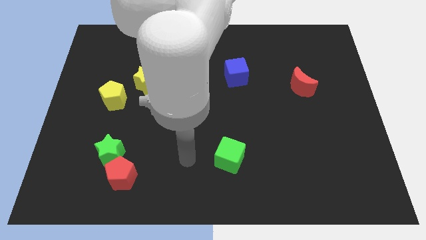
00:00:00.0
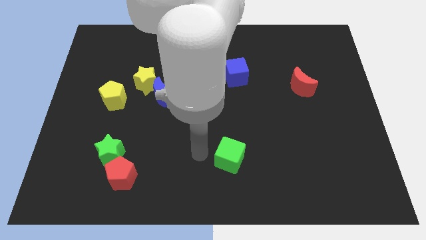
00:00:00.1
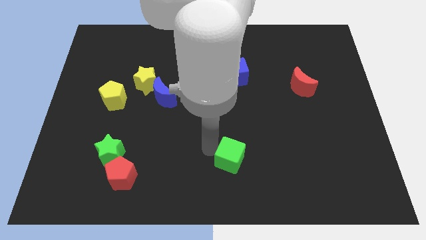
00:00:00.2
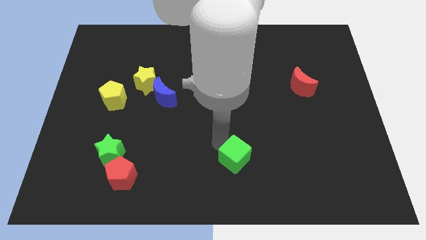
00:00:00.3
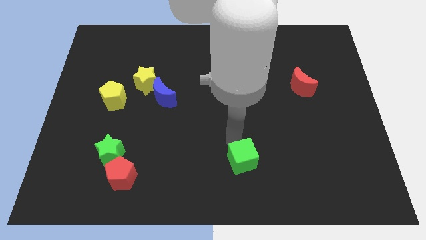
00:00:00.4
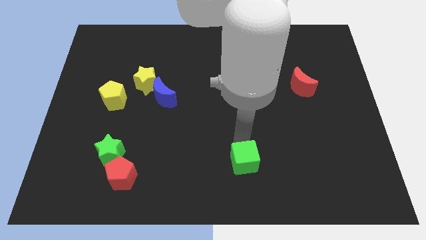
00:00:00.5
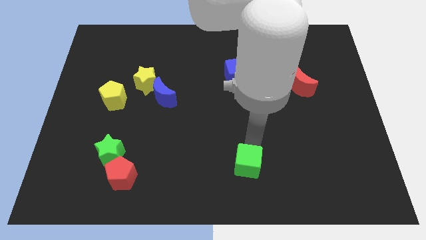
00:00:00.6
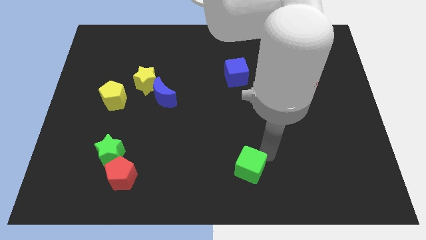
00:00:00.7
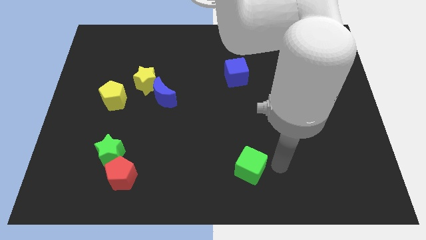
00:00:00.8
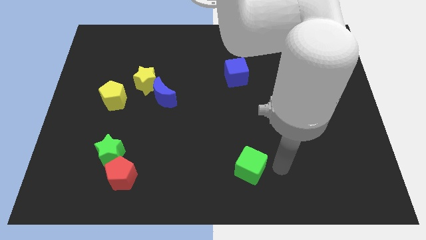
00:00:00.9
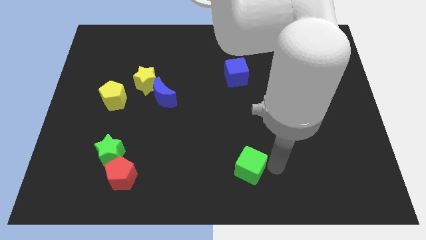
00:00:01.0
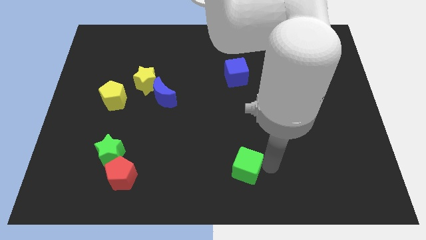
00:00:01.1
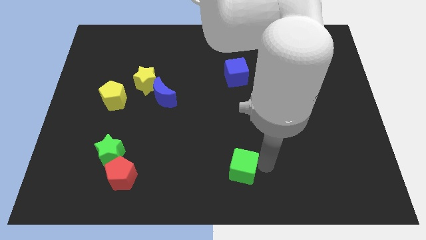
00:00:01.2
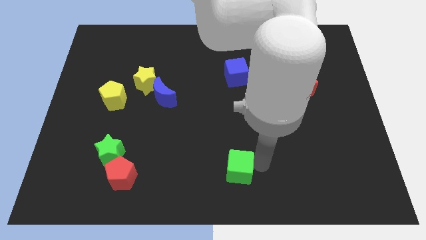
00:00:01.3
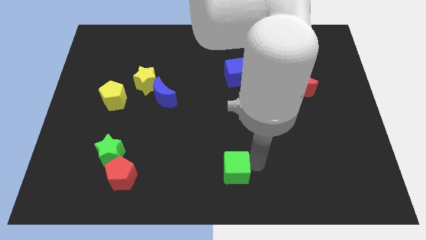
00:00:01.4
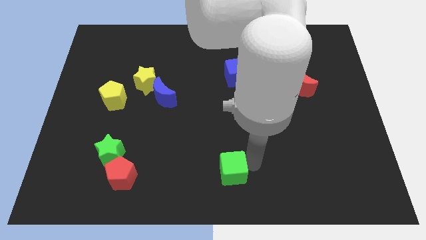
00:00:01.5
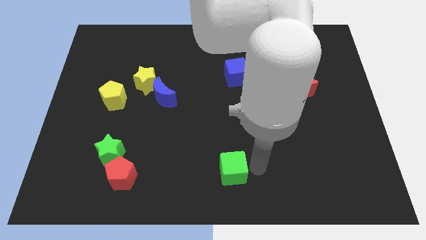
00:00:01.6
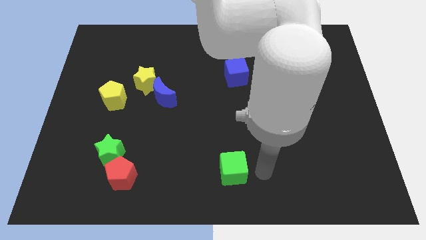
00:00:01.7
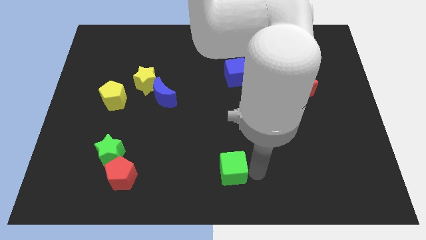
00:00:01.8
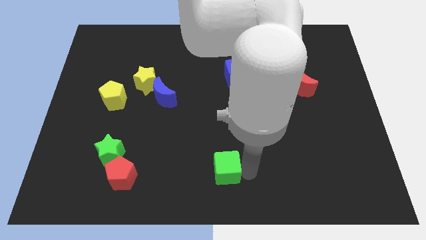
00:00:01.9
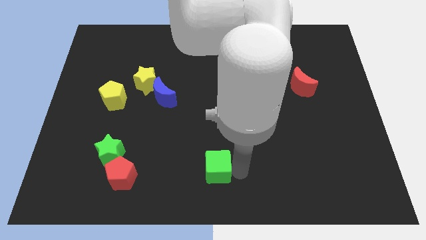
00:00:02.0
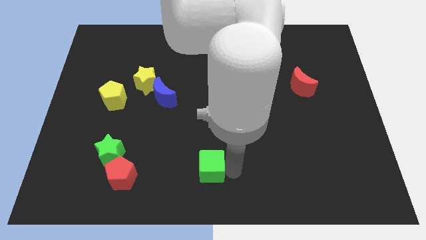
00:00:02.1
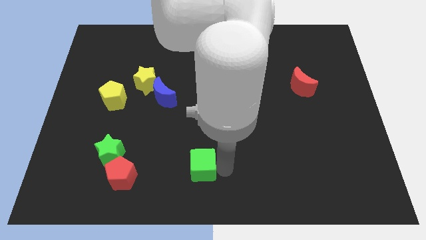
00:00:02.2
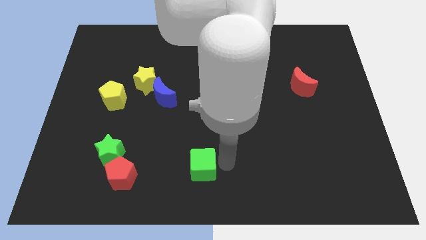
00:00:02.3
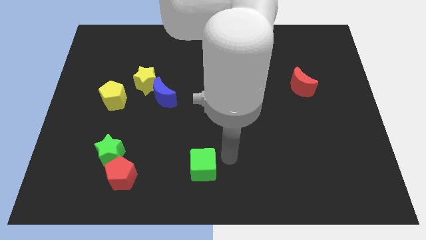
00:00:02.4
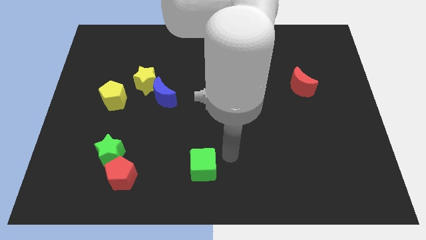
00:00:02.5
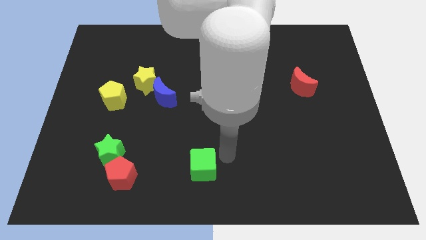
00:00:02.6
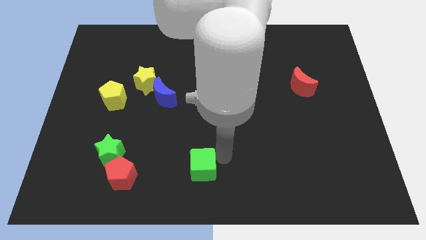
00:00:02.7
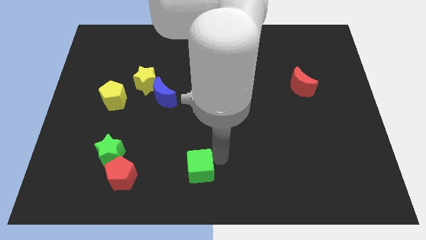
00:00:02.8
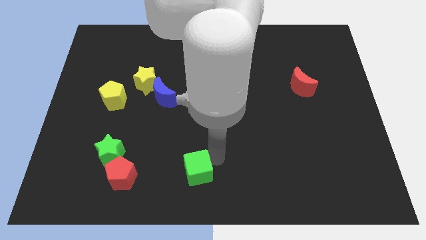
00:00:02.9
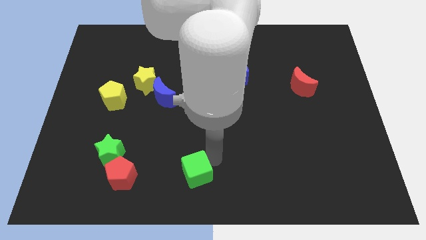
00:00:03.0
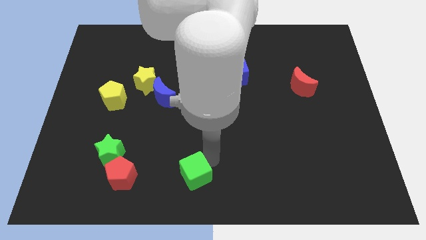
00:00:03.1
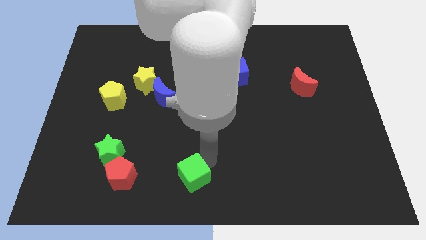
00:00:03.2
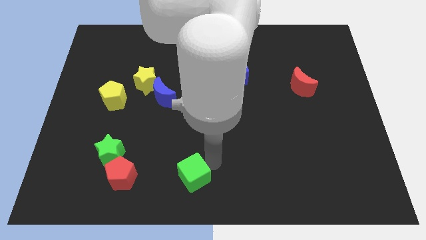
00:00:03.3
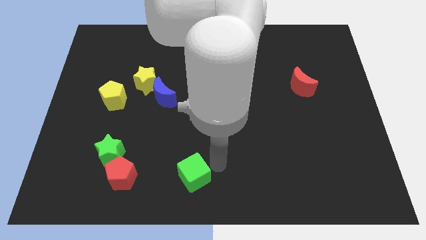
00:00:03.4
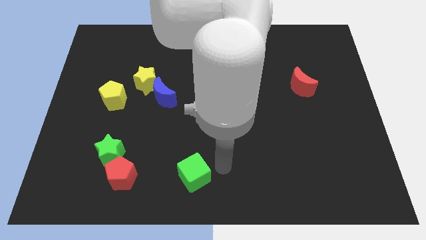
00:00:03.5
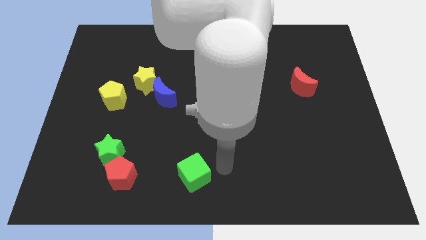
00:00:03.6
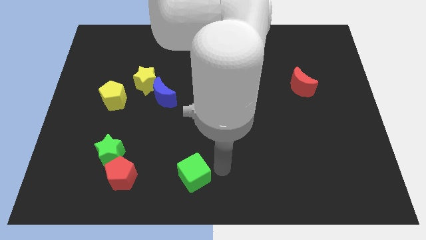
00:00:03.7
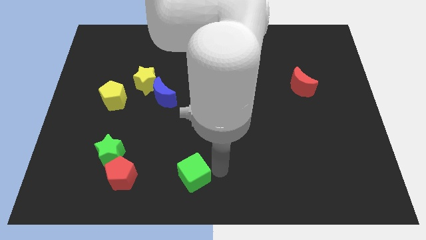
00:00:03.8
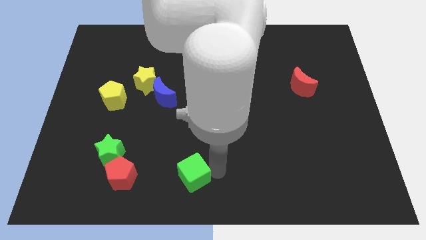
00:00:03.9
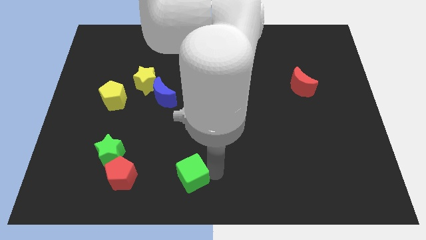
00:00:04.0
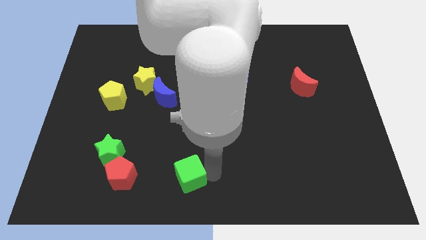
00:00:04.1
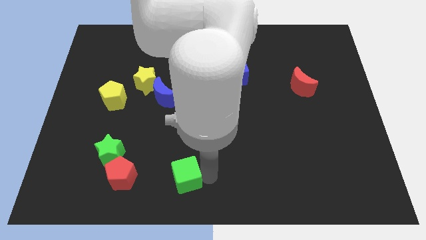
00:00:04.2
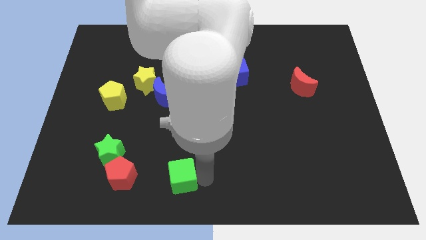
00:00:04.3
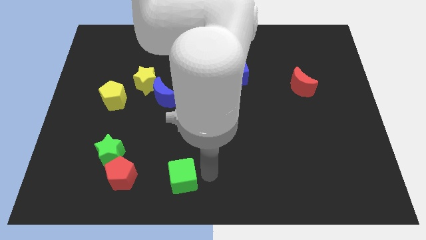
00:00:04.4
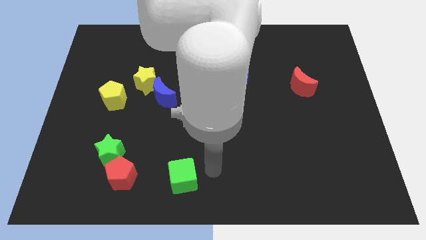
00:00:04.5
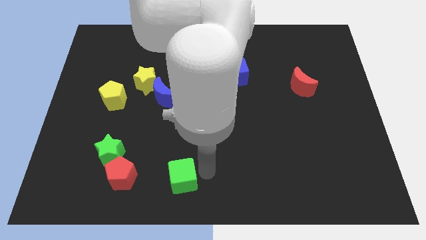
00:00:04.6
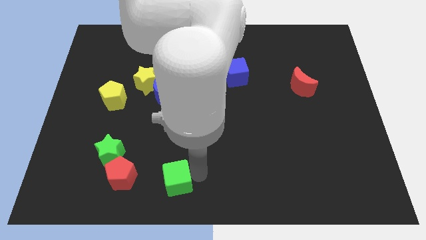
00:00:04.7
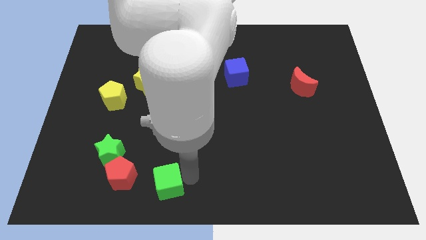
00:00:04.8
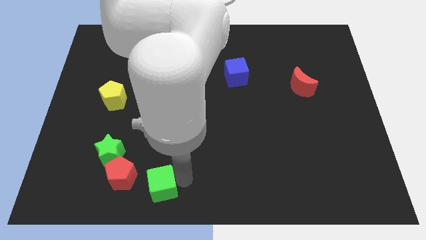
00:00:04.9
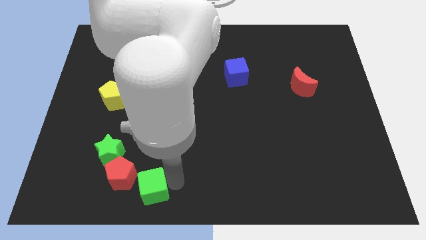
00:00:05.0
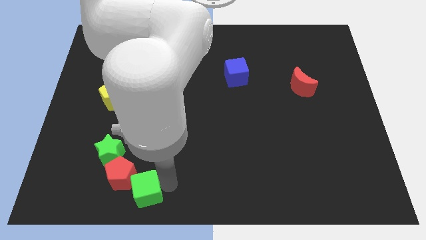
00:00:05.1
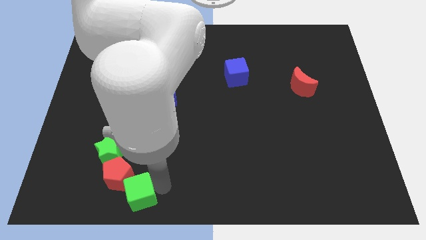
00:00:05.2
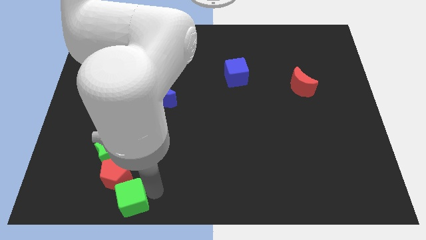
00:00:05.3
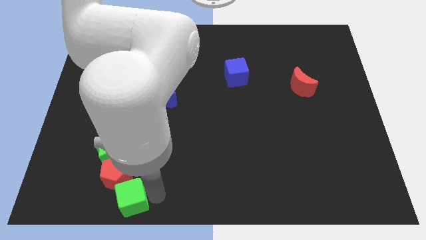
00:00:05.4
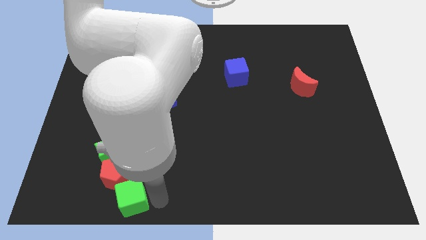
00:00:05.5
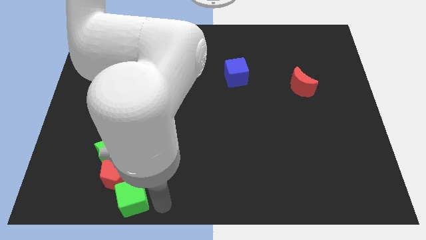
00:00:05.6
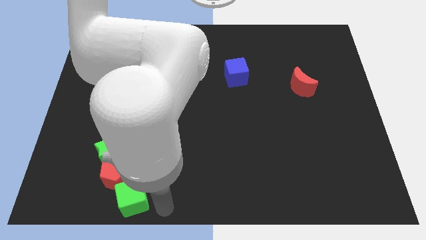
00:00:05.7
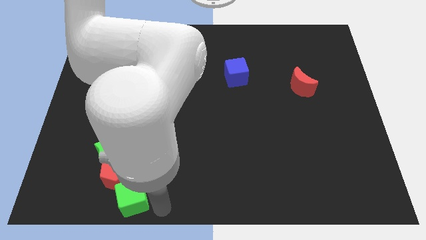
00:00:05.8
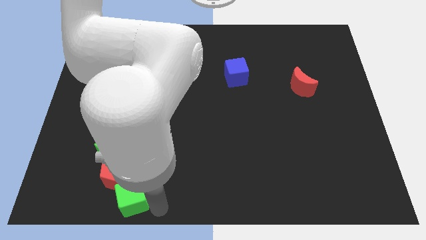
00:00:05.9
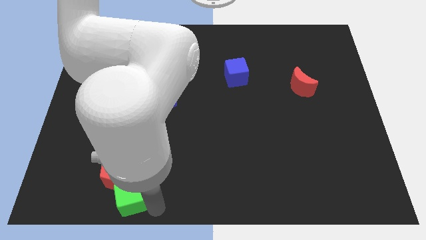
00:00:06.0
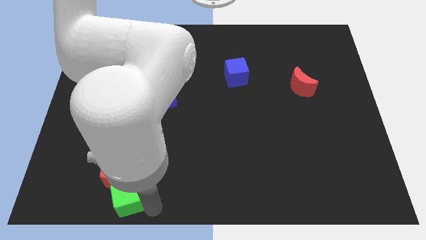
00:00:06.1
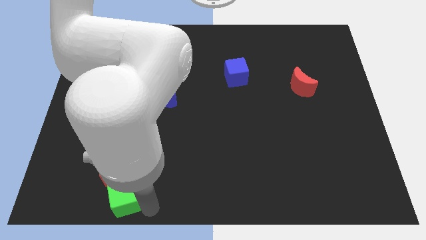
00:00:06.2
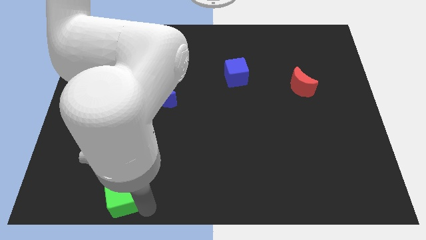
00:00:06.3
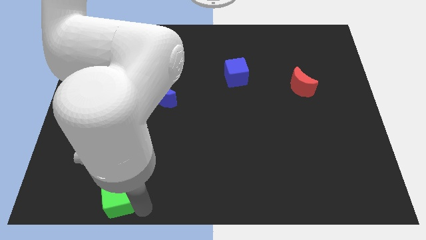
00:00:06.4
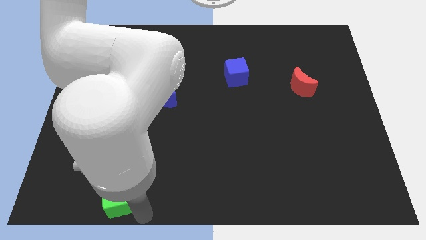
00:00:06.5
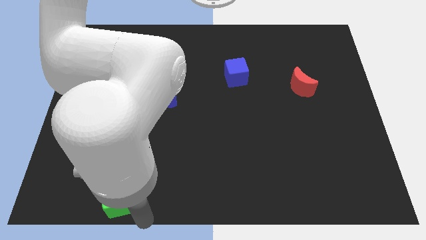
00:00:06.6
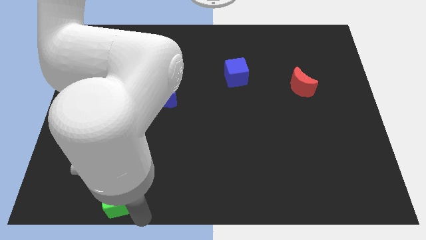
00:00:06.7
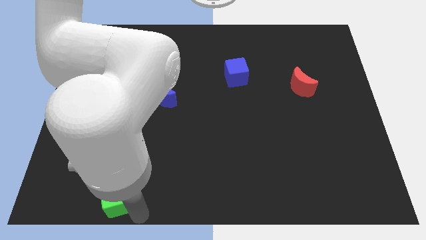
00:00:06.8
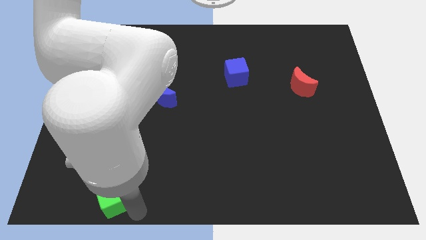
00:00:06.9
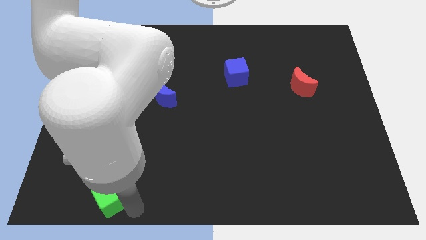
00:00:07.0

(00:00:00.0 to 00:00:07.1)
slide the green cube to the left

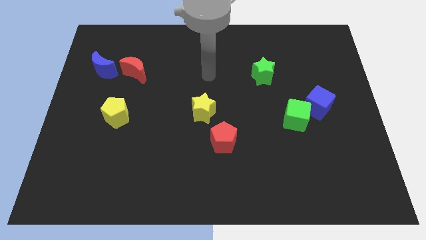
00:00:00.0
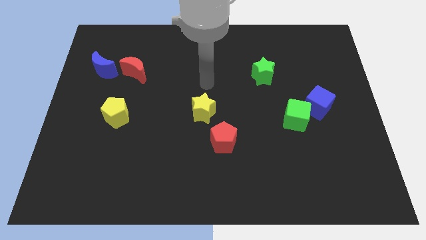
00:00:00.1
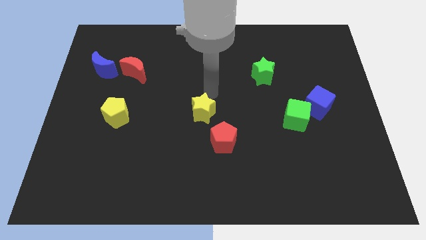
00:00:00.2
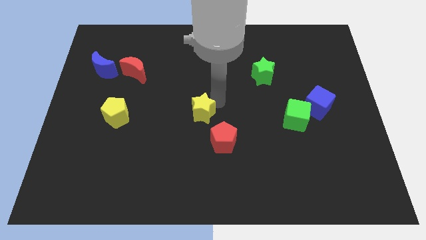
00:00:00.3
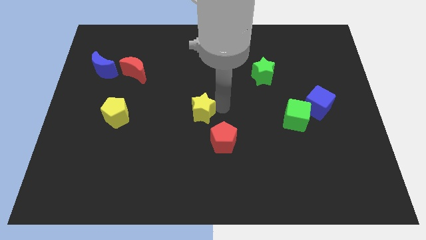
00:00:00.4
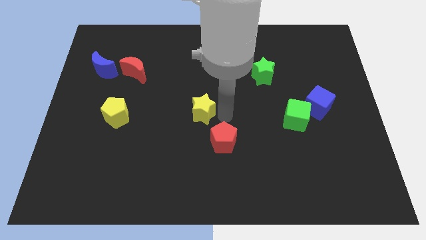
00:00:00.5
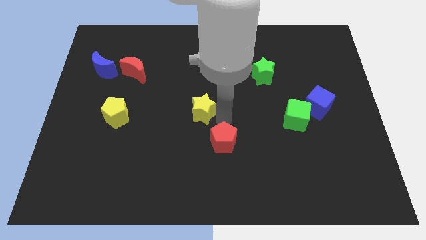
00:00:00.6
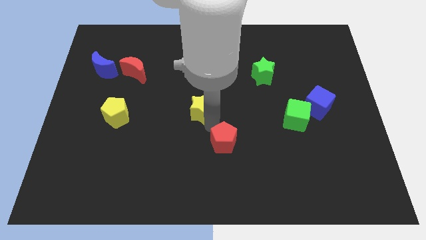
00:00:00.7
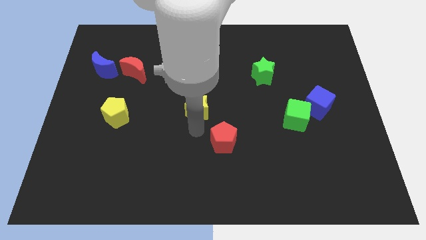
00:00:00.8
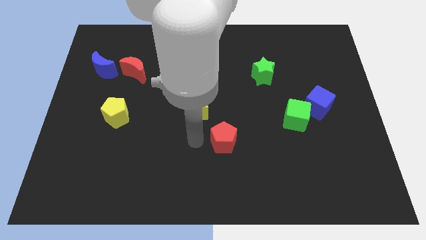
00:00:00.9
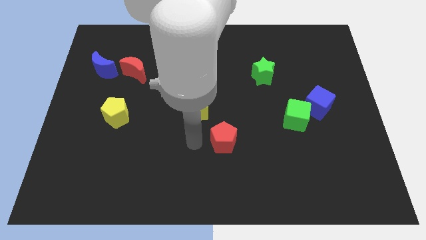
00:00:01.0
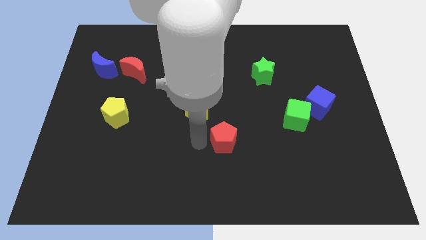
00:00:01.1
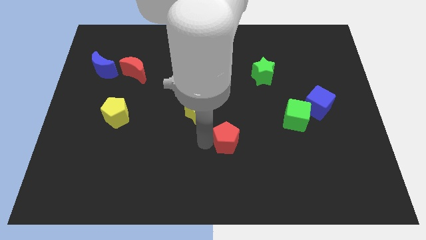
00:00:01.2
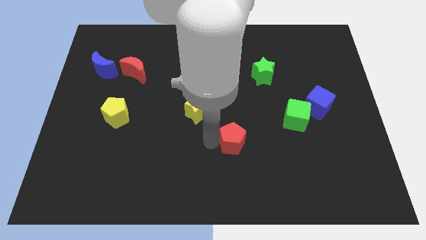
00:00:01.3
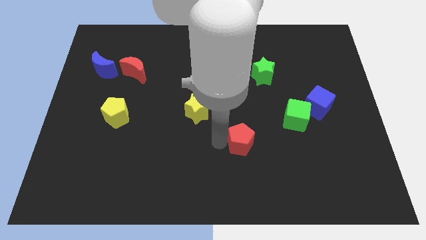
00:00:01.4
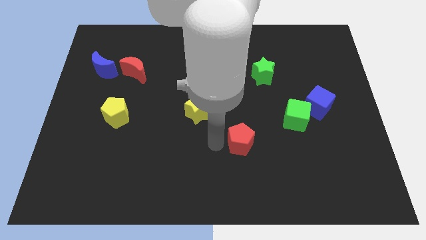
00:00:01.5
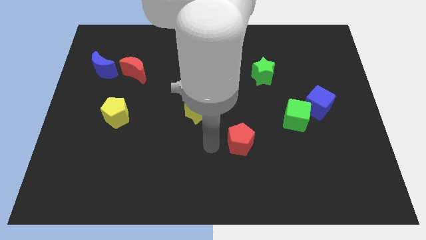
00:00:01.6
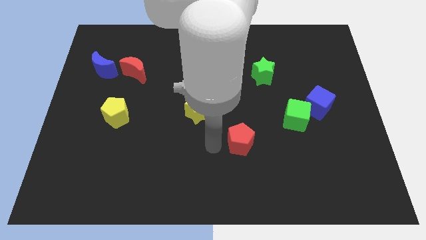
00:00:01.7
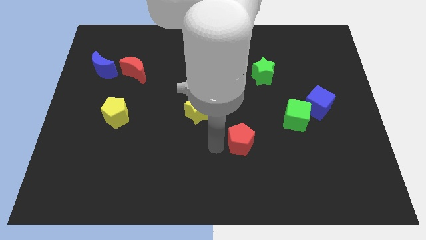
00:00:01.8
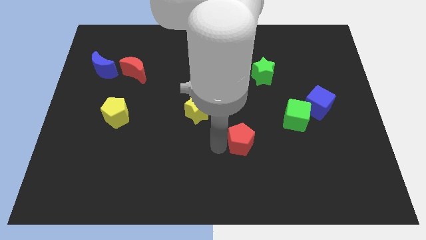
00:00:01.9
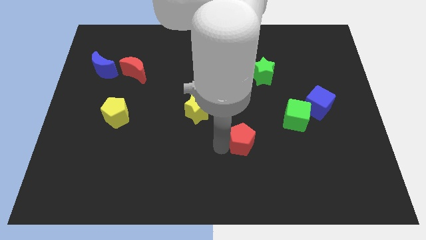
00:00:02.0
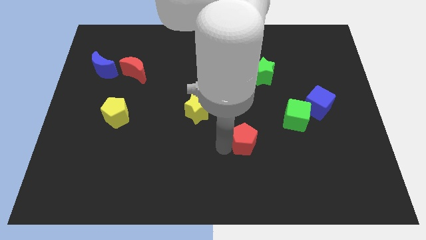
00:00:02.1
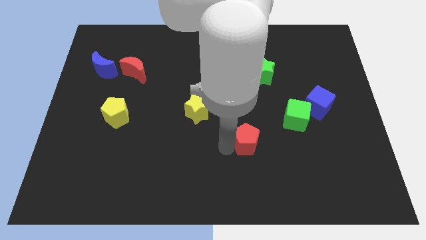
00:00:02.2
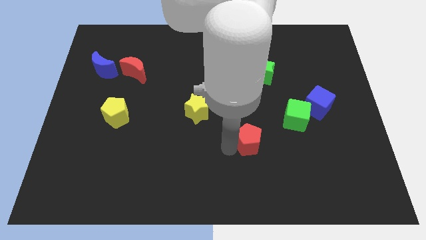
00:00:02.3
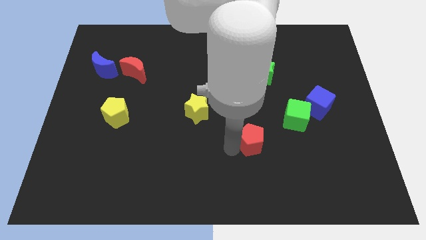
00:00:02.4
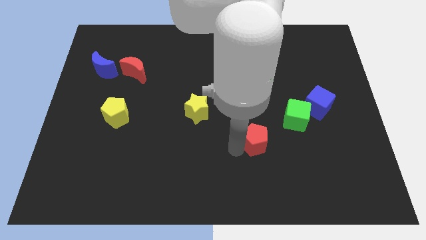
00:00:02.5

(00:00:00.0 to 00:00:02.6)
slide the red pentagon somewhat to the right
